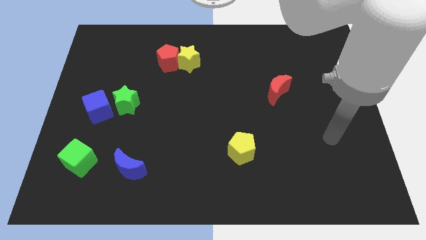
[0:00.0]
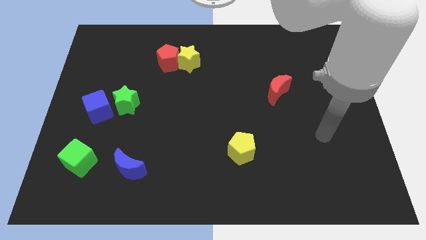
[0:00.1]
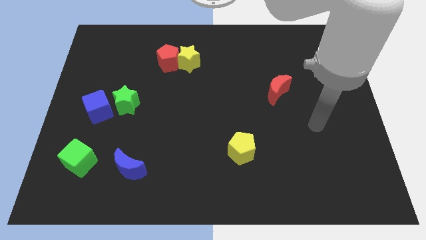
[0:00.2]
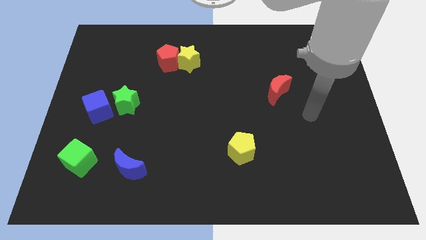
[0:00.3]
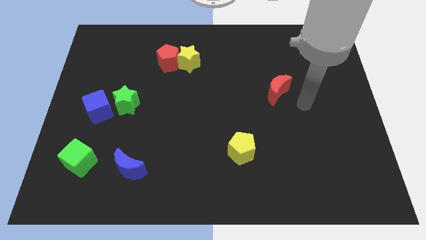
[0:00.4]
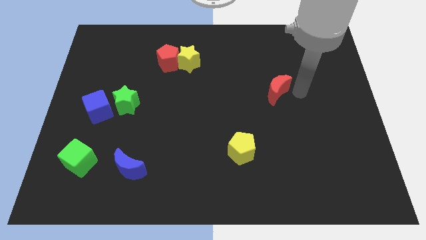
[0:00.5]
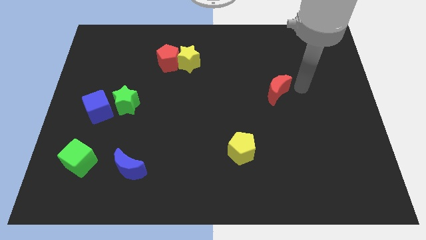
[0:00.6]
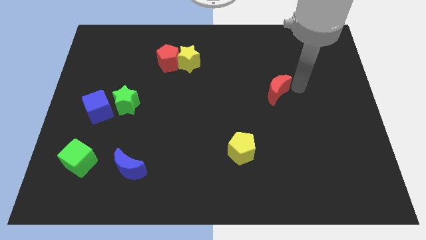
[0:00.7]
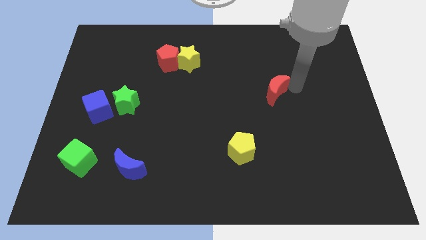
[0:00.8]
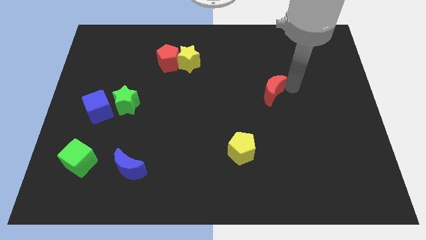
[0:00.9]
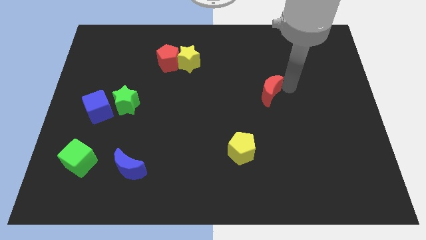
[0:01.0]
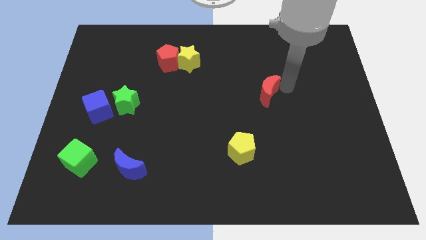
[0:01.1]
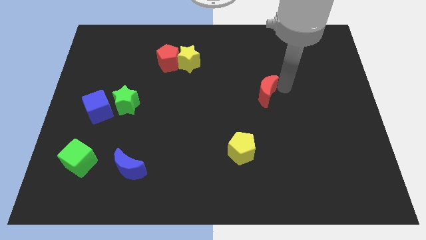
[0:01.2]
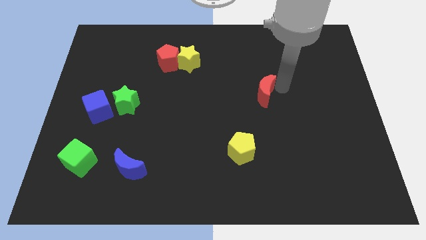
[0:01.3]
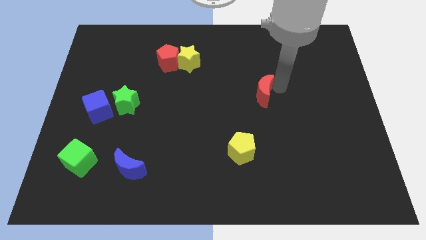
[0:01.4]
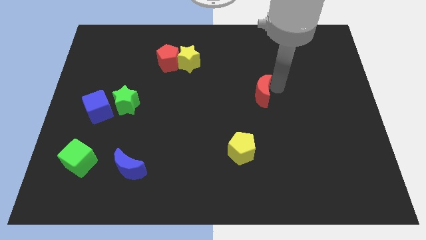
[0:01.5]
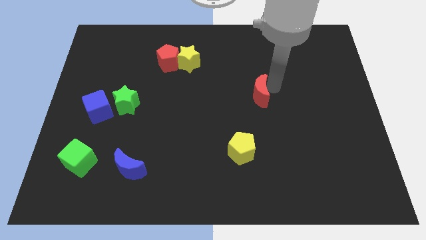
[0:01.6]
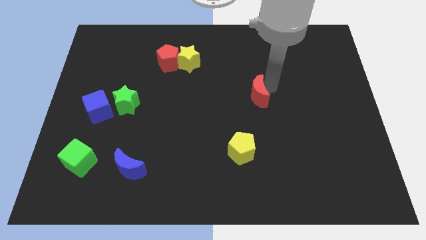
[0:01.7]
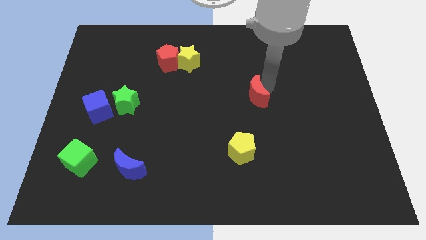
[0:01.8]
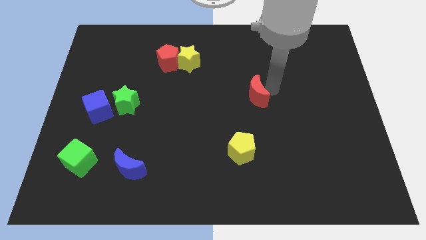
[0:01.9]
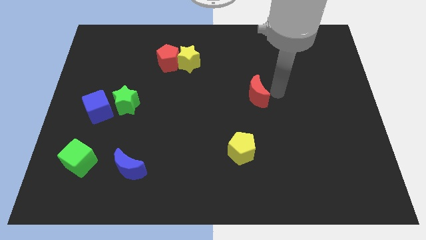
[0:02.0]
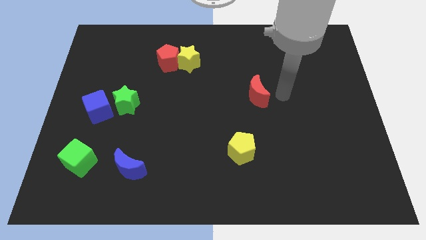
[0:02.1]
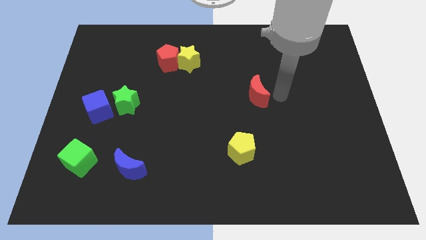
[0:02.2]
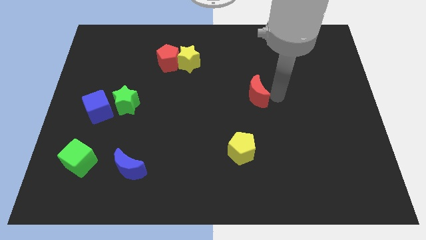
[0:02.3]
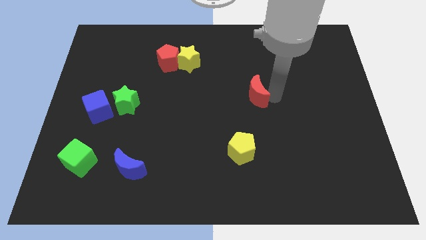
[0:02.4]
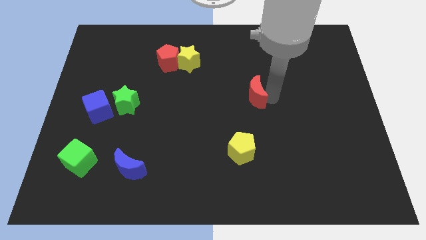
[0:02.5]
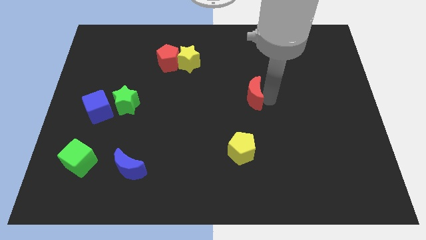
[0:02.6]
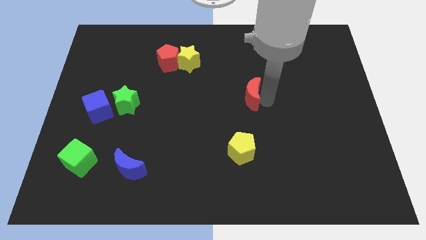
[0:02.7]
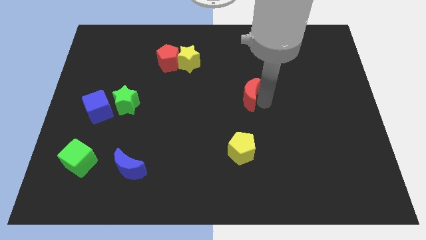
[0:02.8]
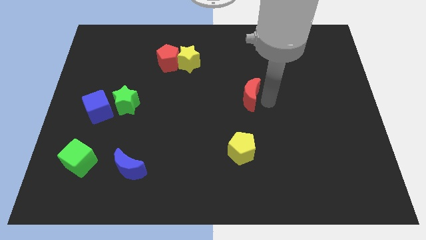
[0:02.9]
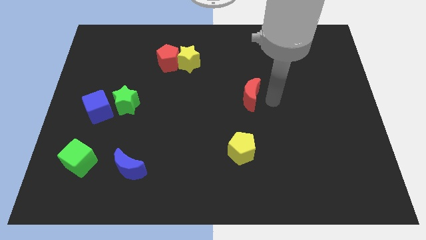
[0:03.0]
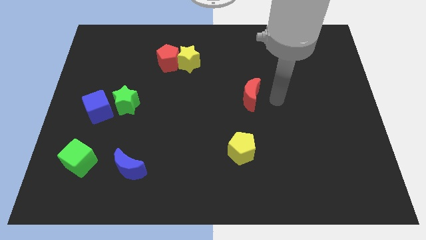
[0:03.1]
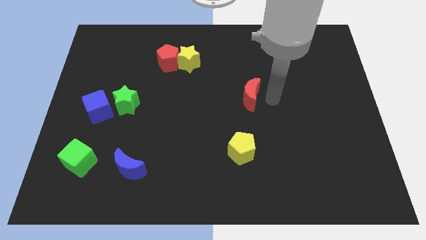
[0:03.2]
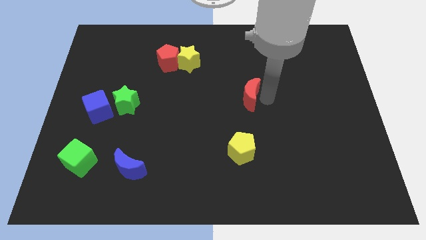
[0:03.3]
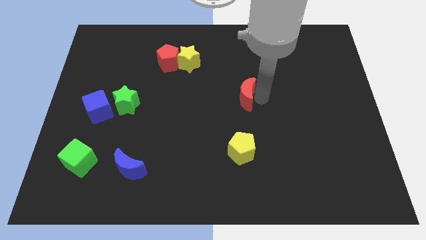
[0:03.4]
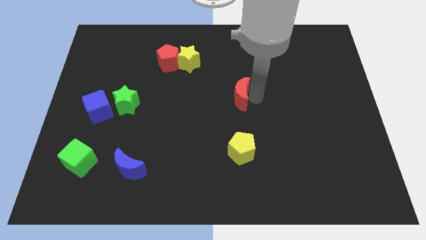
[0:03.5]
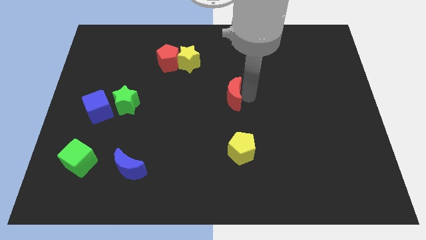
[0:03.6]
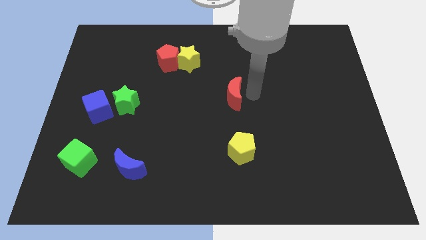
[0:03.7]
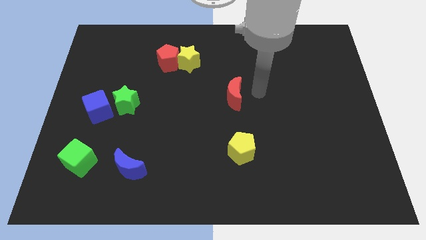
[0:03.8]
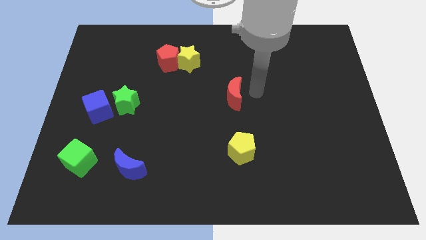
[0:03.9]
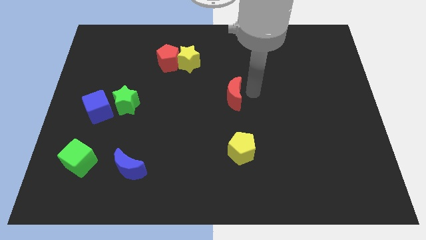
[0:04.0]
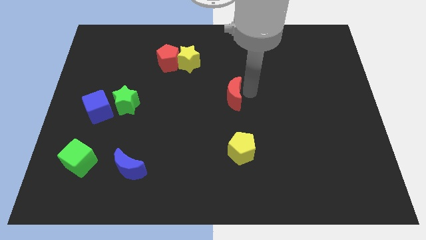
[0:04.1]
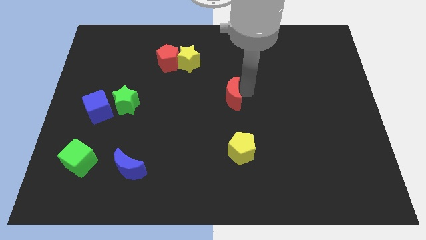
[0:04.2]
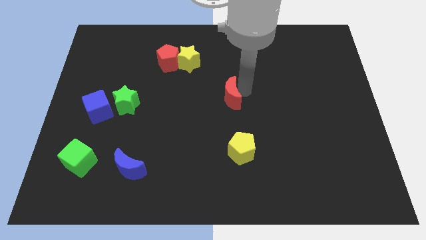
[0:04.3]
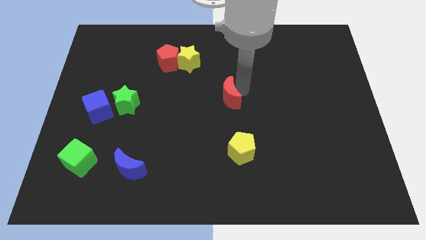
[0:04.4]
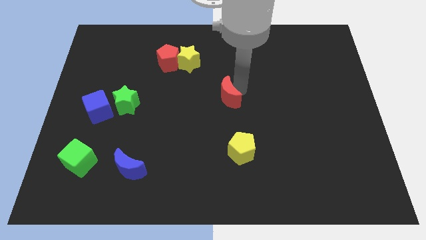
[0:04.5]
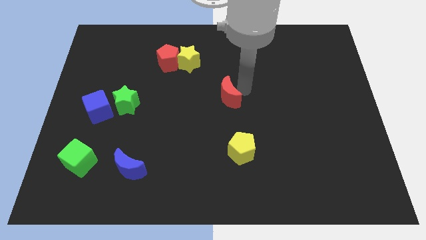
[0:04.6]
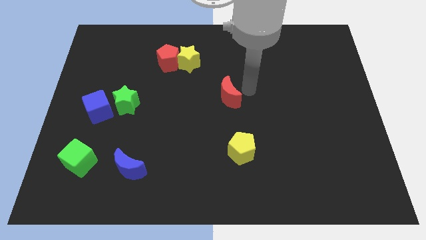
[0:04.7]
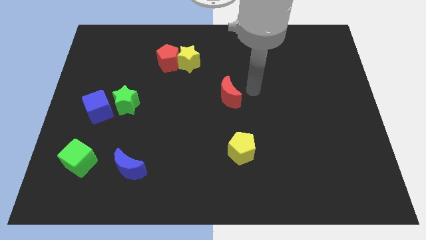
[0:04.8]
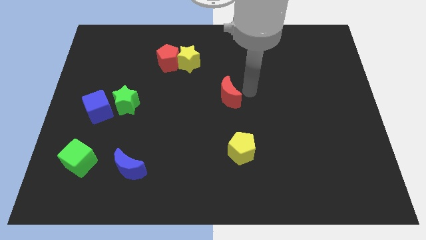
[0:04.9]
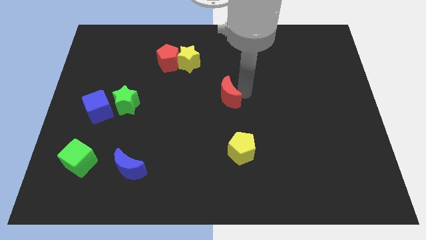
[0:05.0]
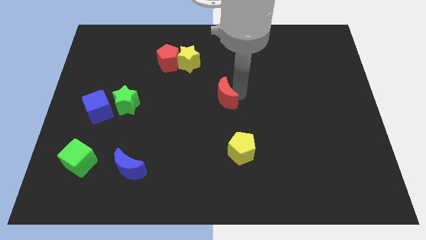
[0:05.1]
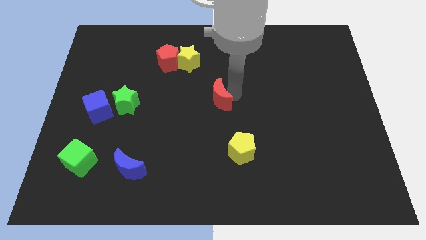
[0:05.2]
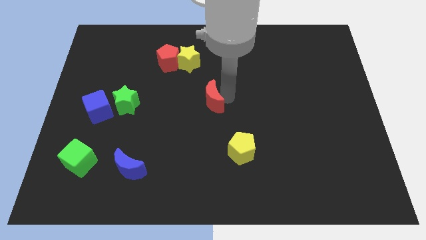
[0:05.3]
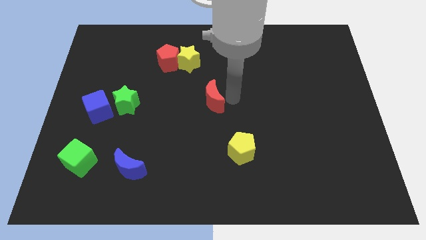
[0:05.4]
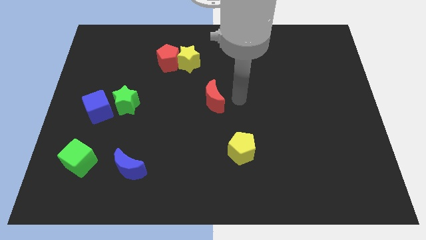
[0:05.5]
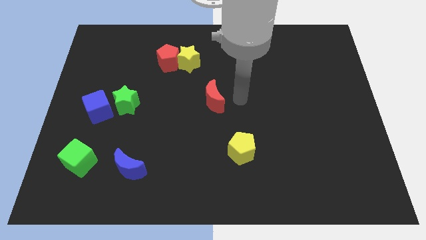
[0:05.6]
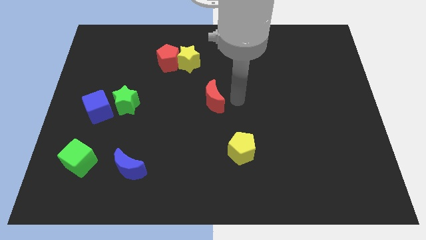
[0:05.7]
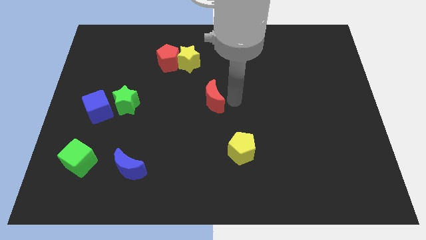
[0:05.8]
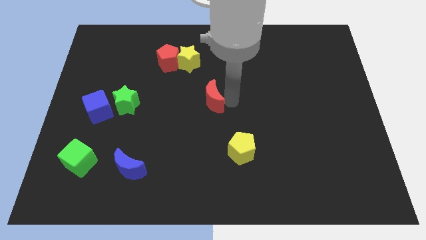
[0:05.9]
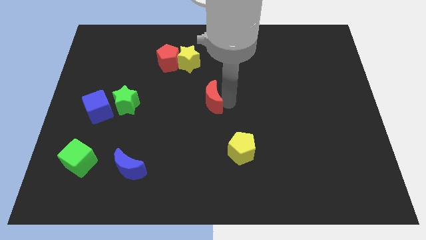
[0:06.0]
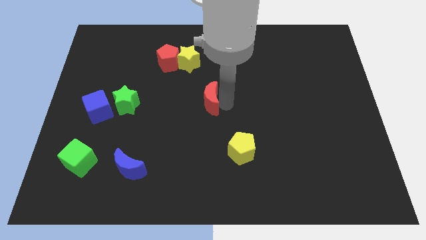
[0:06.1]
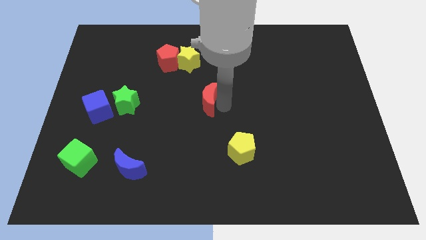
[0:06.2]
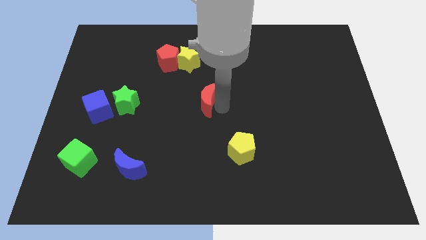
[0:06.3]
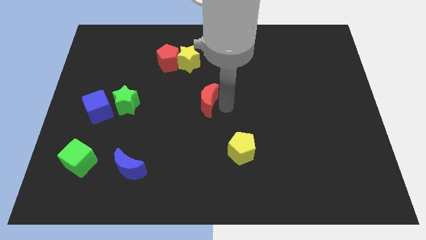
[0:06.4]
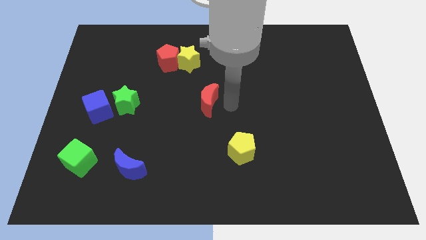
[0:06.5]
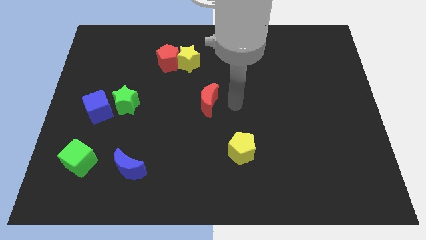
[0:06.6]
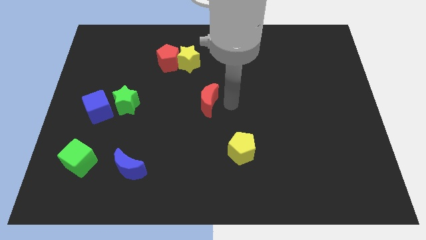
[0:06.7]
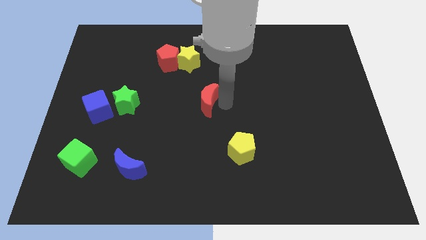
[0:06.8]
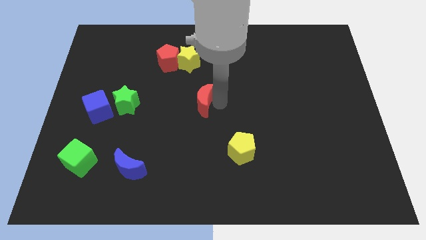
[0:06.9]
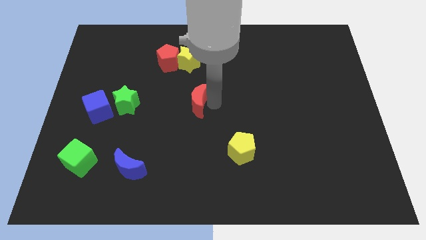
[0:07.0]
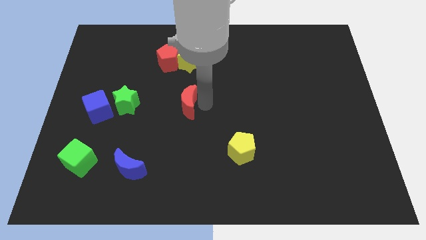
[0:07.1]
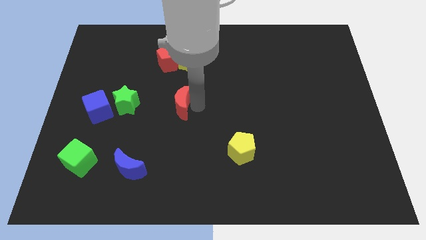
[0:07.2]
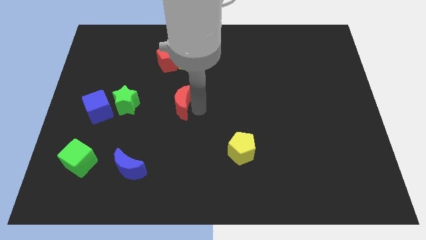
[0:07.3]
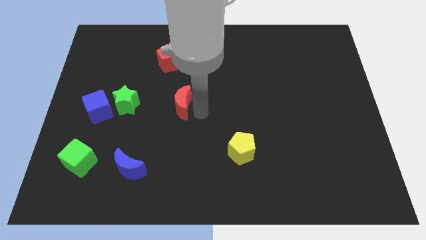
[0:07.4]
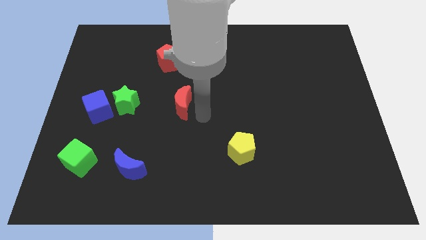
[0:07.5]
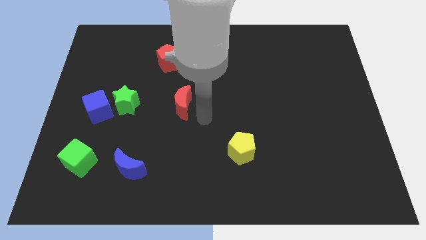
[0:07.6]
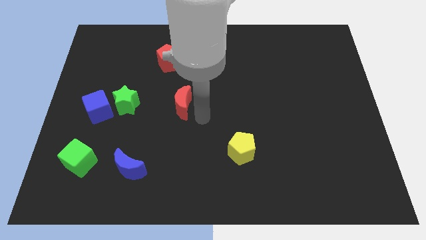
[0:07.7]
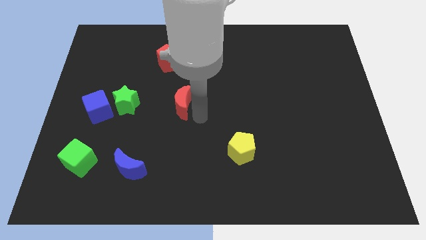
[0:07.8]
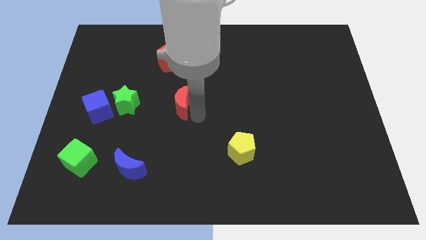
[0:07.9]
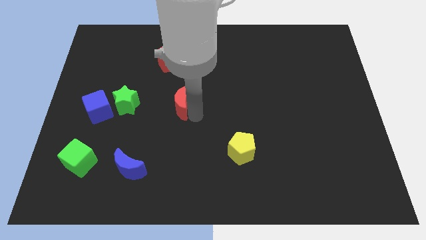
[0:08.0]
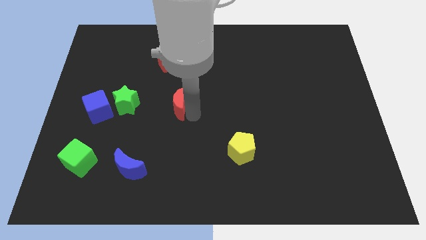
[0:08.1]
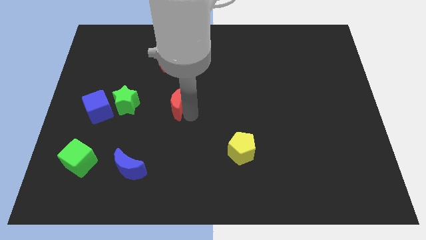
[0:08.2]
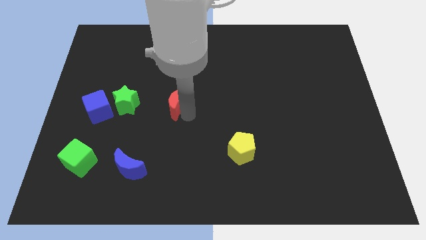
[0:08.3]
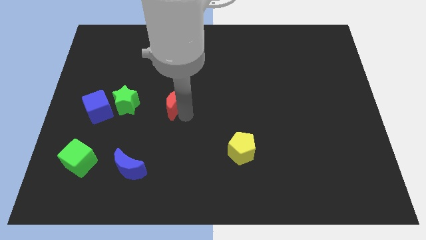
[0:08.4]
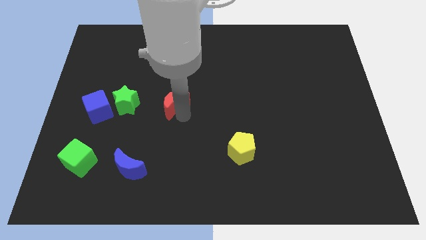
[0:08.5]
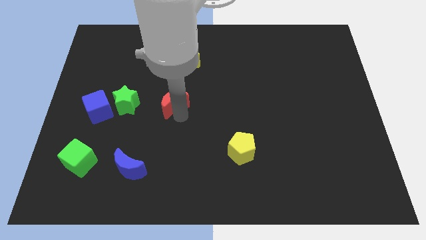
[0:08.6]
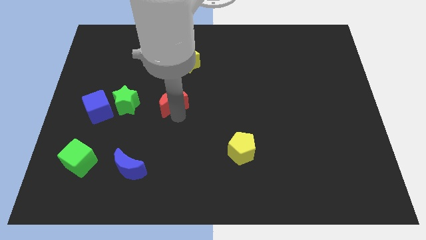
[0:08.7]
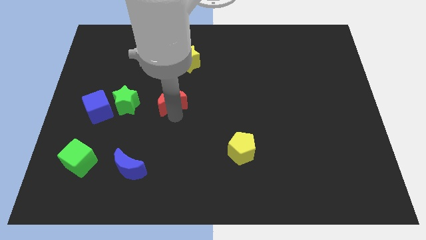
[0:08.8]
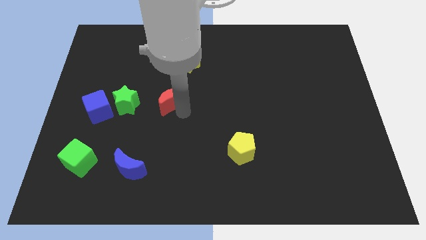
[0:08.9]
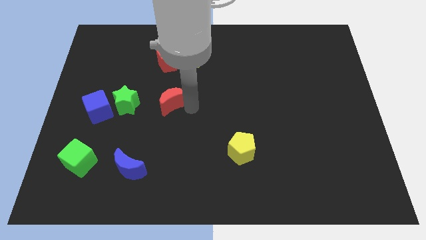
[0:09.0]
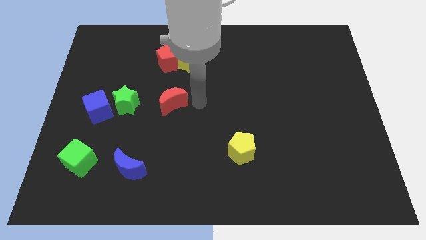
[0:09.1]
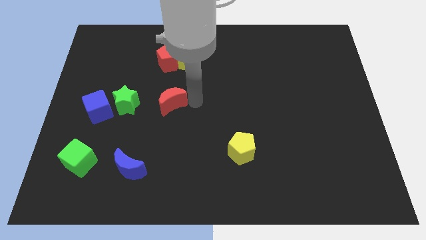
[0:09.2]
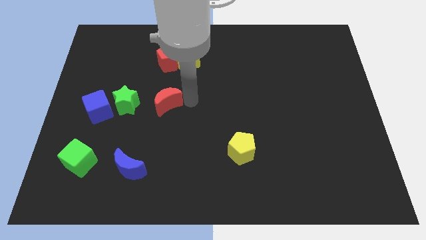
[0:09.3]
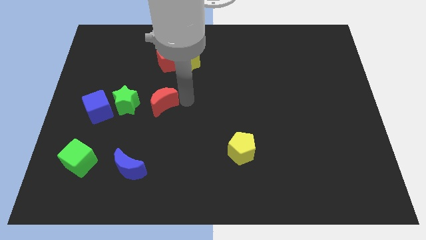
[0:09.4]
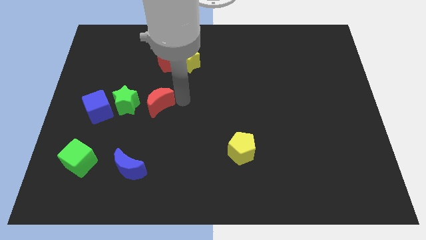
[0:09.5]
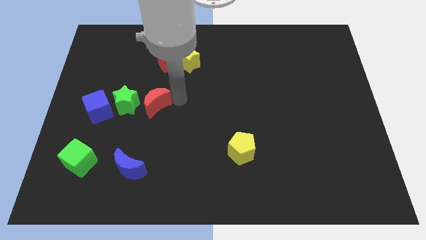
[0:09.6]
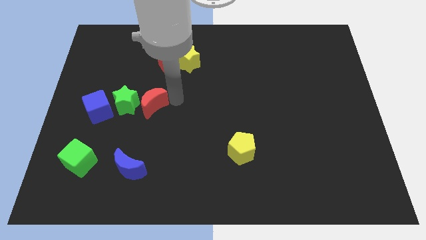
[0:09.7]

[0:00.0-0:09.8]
move the red moon to the green star
